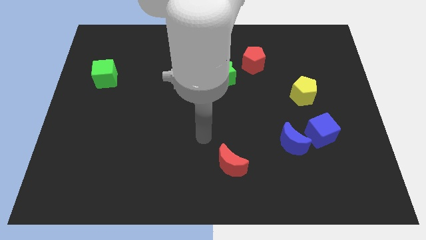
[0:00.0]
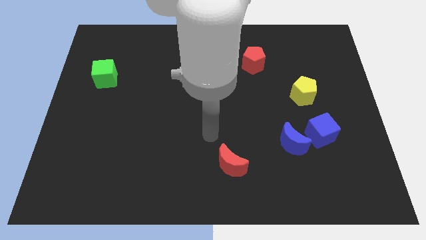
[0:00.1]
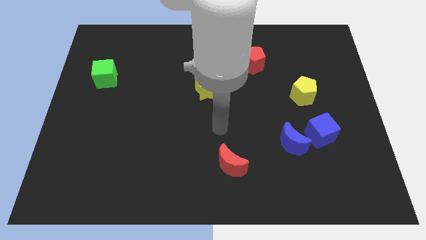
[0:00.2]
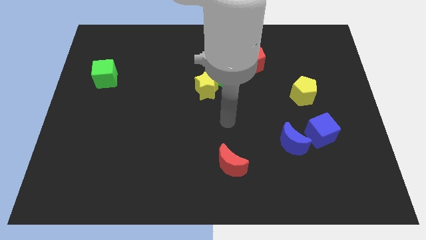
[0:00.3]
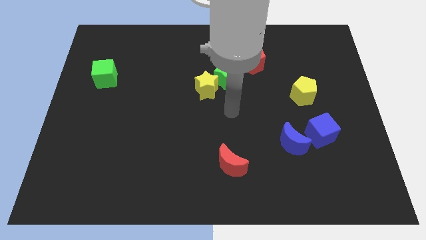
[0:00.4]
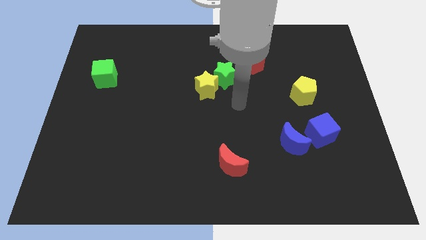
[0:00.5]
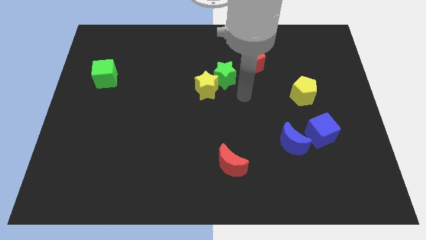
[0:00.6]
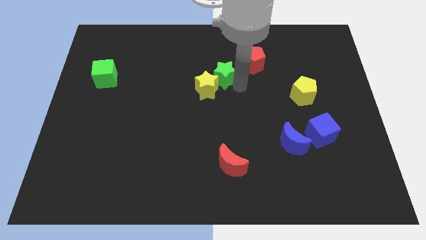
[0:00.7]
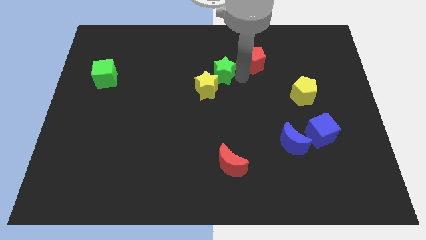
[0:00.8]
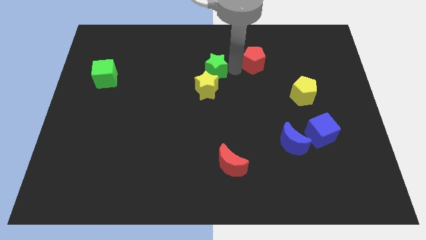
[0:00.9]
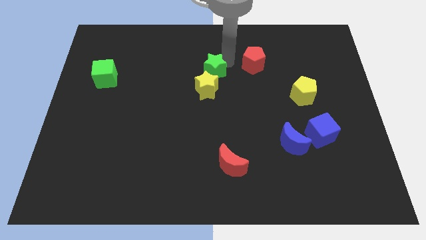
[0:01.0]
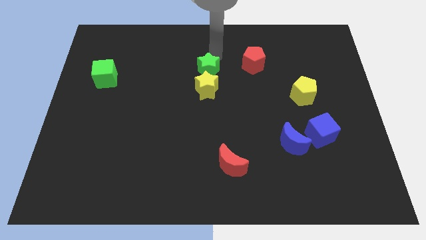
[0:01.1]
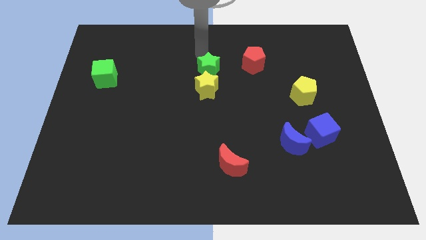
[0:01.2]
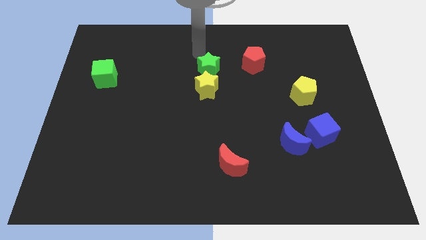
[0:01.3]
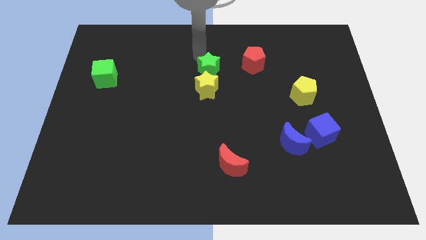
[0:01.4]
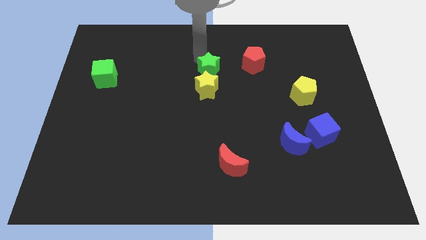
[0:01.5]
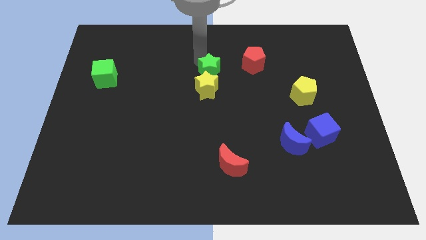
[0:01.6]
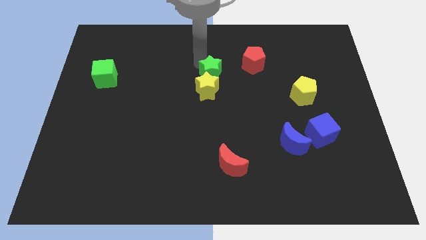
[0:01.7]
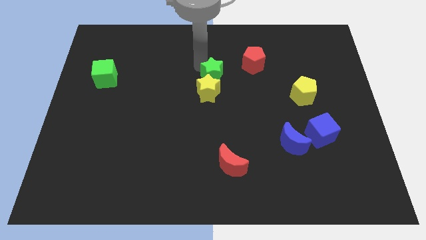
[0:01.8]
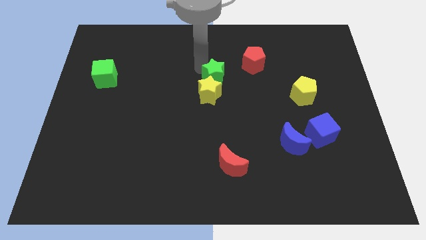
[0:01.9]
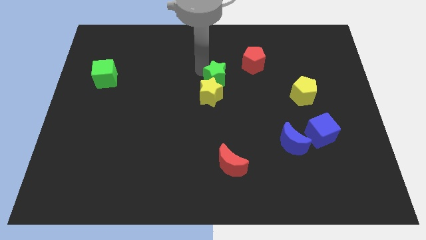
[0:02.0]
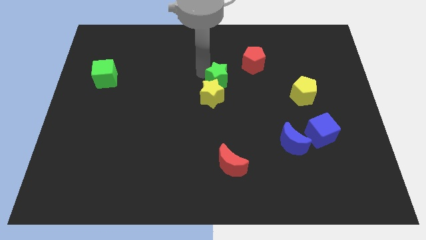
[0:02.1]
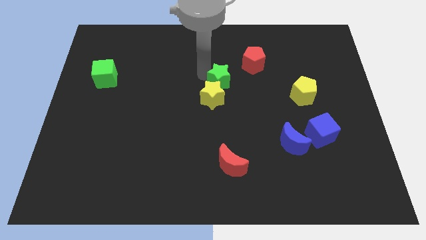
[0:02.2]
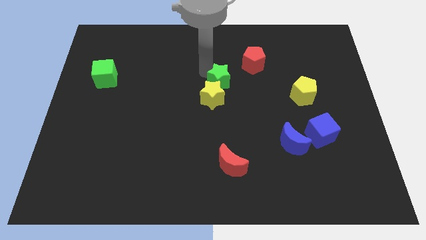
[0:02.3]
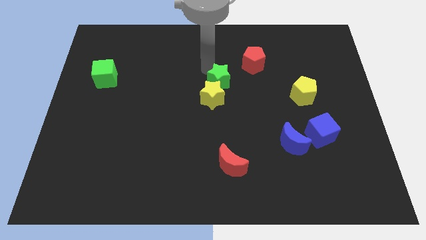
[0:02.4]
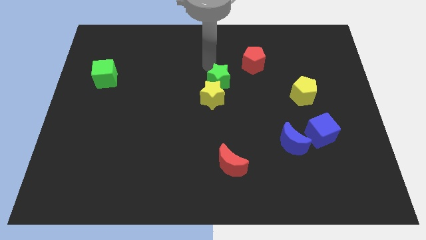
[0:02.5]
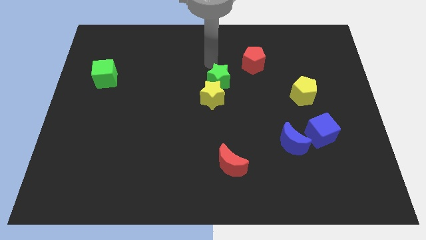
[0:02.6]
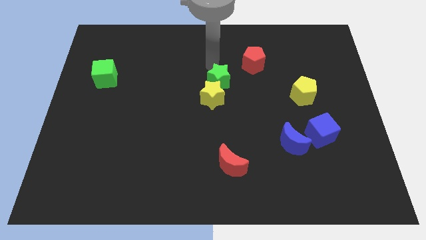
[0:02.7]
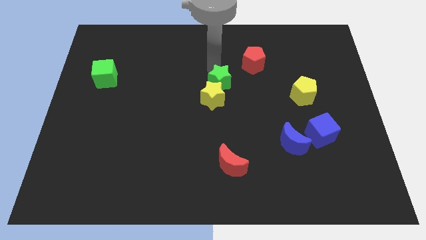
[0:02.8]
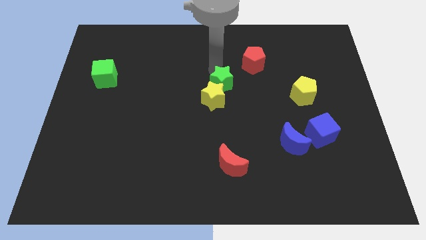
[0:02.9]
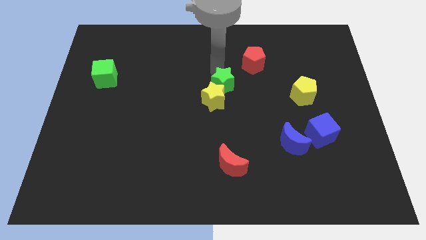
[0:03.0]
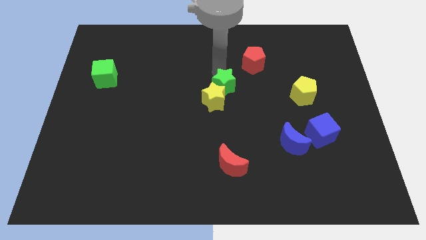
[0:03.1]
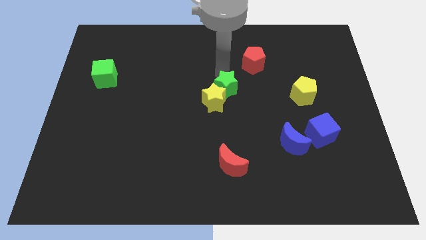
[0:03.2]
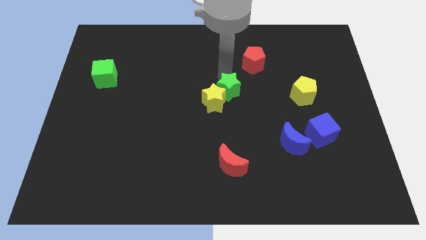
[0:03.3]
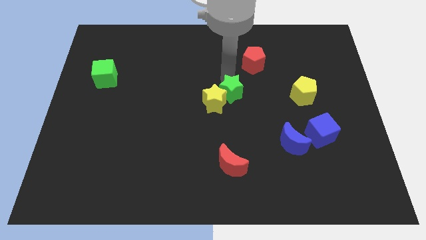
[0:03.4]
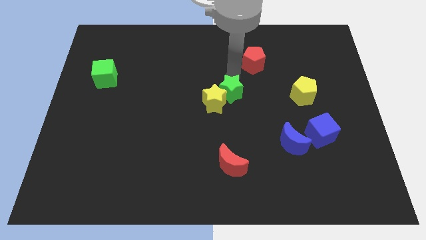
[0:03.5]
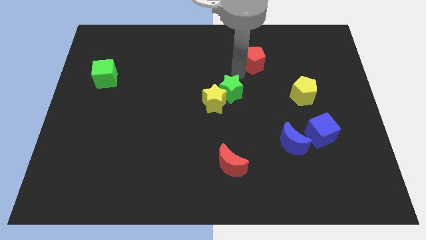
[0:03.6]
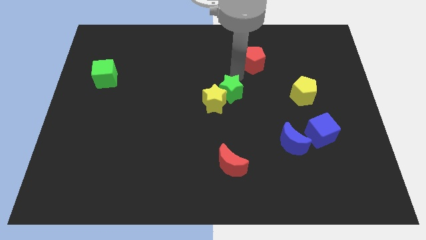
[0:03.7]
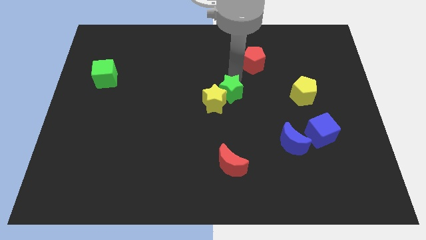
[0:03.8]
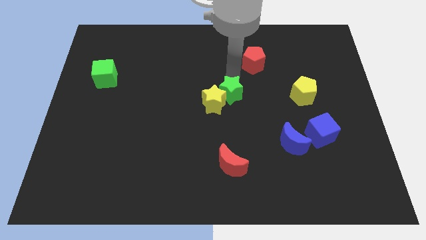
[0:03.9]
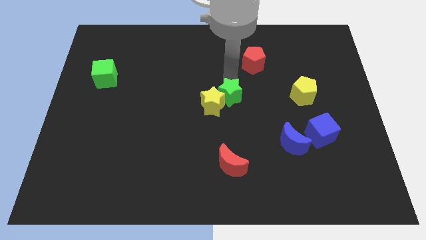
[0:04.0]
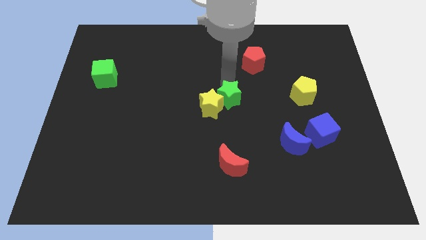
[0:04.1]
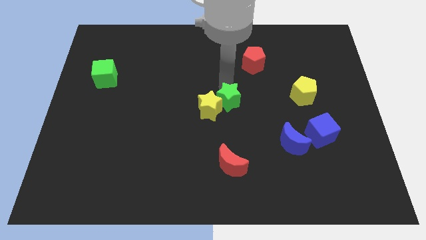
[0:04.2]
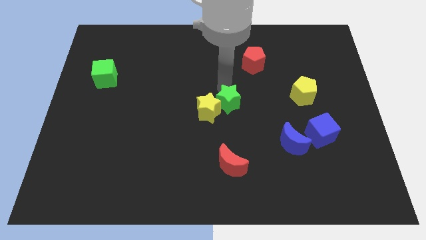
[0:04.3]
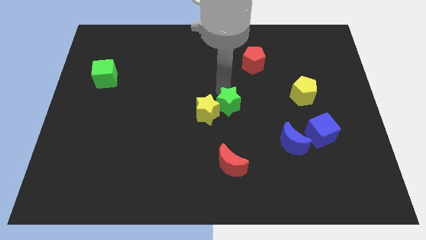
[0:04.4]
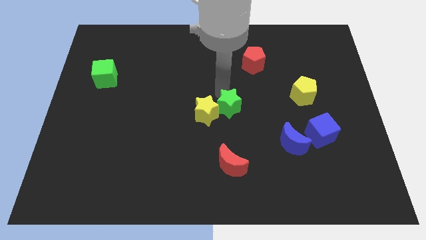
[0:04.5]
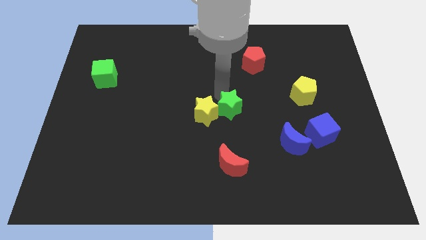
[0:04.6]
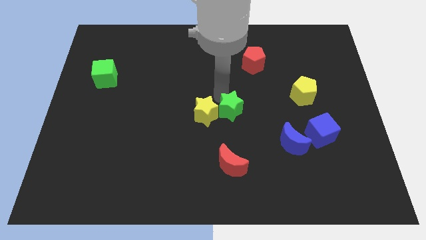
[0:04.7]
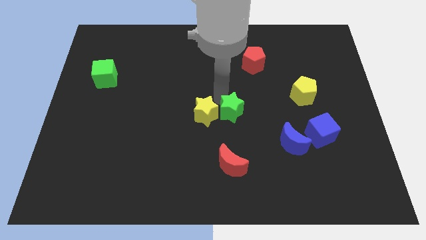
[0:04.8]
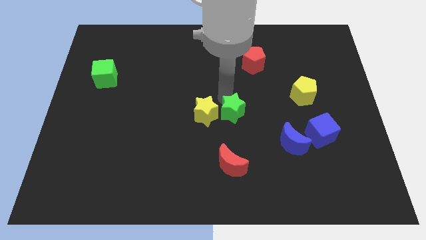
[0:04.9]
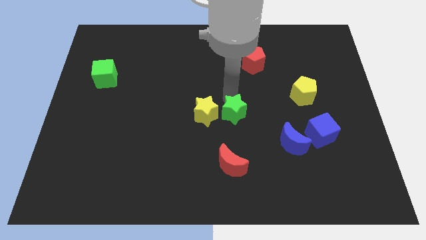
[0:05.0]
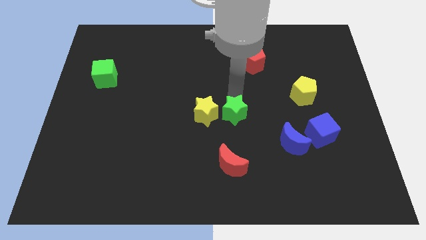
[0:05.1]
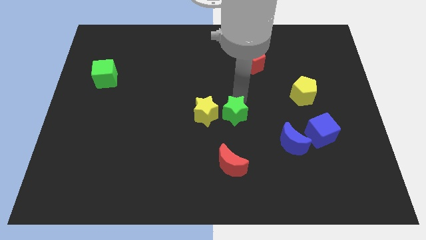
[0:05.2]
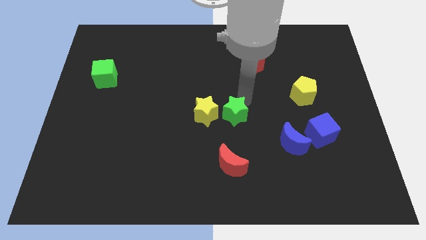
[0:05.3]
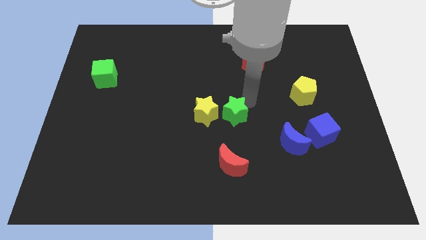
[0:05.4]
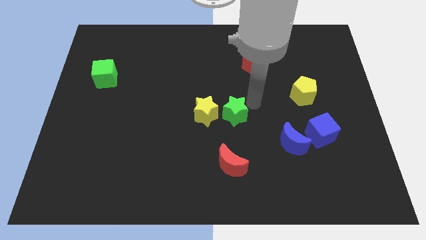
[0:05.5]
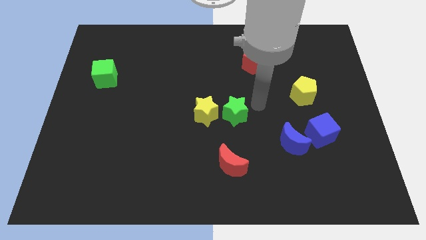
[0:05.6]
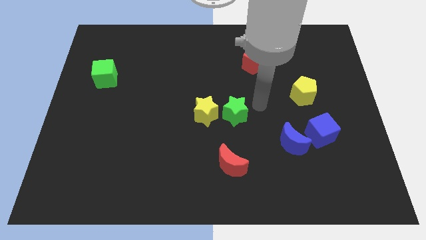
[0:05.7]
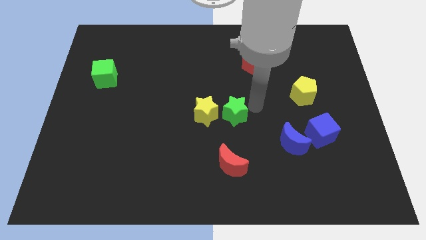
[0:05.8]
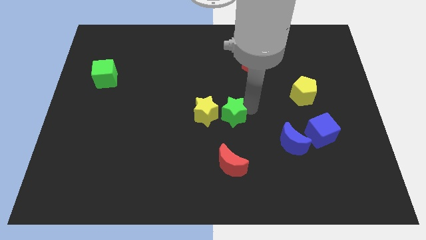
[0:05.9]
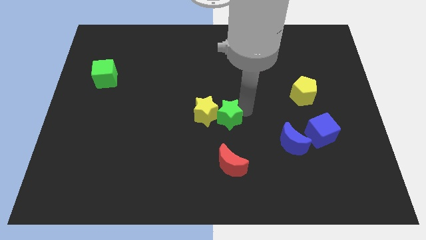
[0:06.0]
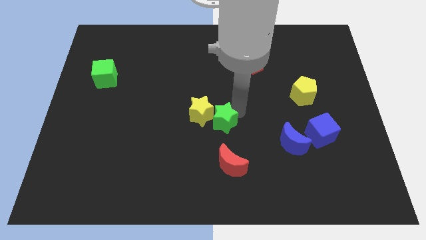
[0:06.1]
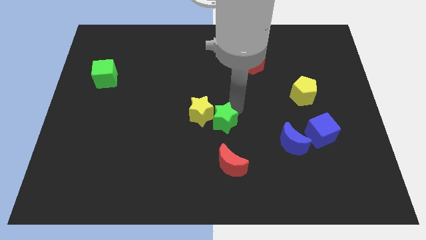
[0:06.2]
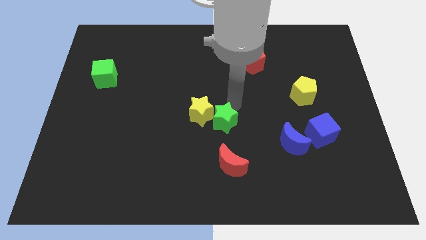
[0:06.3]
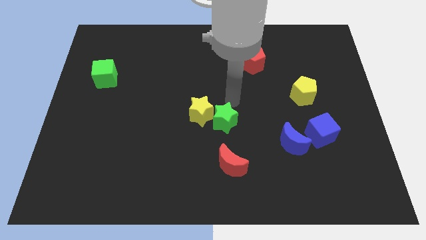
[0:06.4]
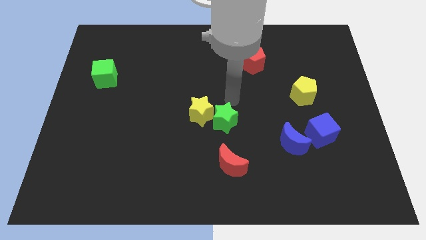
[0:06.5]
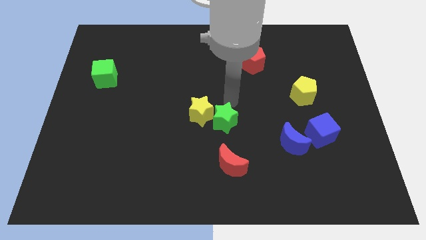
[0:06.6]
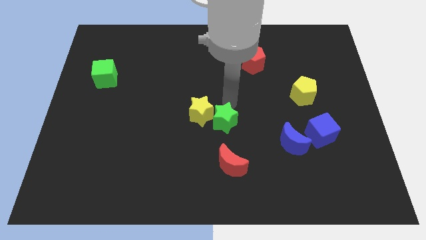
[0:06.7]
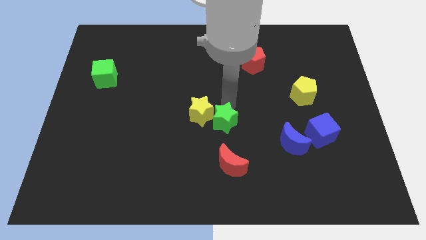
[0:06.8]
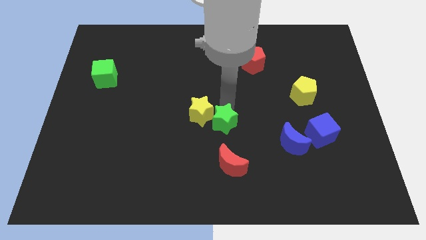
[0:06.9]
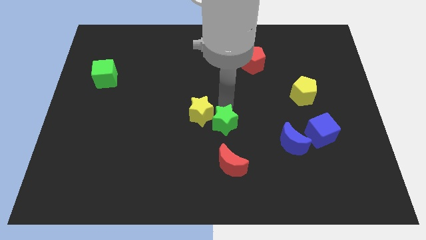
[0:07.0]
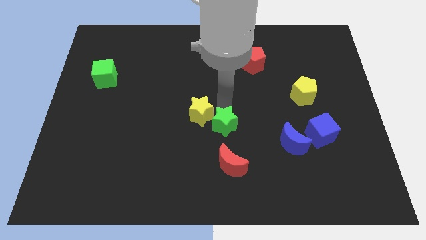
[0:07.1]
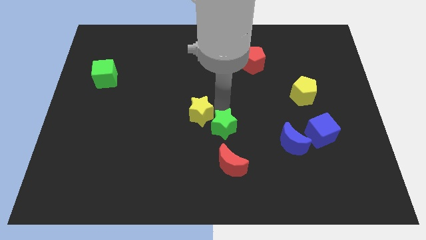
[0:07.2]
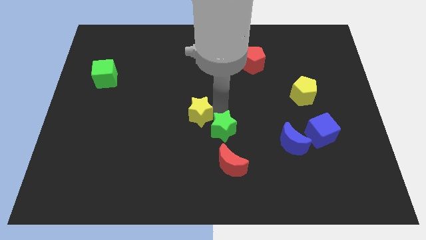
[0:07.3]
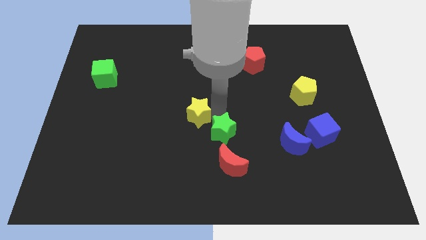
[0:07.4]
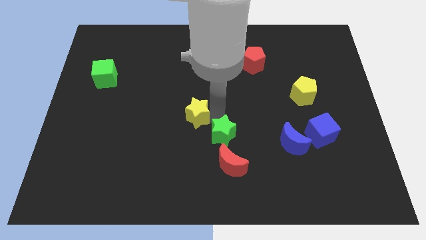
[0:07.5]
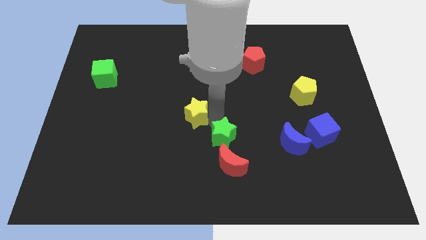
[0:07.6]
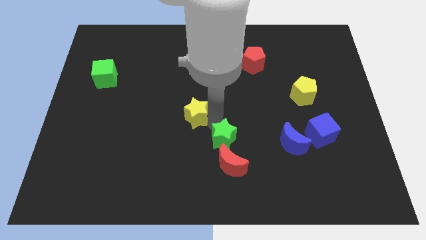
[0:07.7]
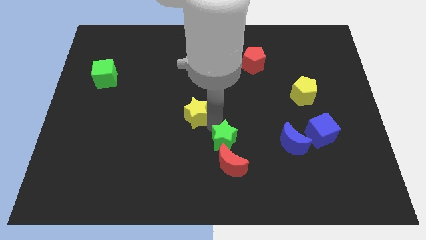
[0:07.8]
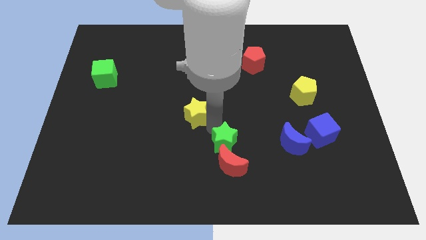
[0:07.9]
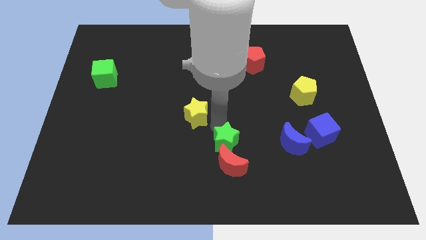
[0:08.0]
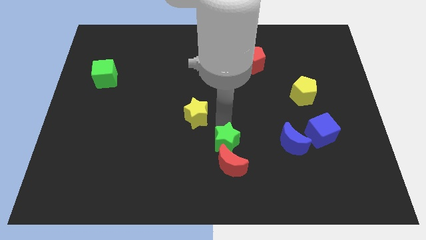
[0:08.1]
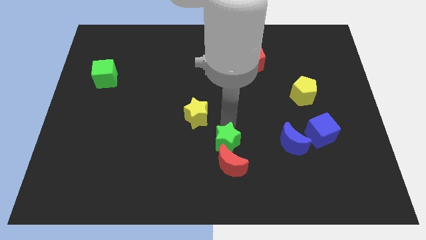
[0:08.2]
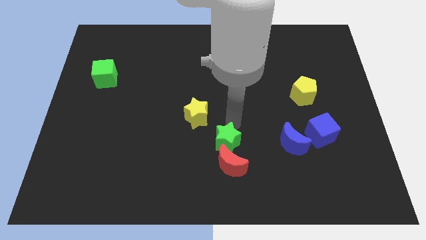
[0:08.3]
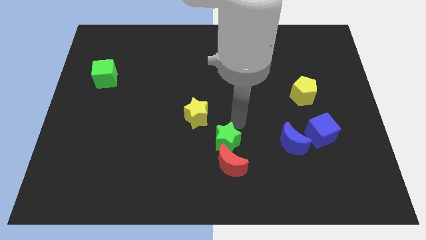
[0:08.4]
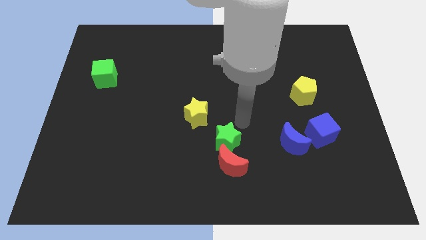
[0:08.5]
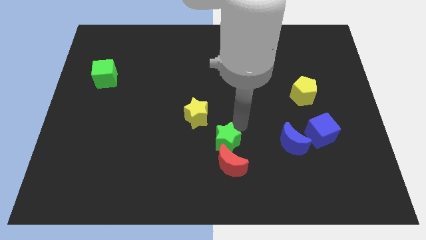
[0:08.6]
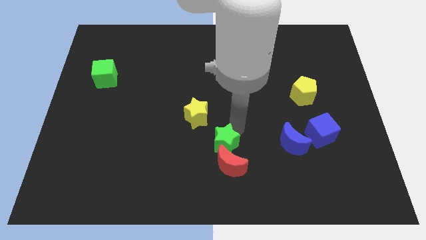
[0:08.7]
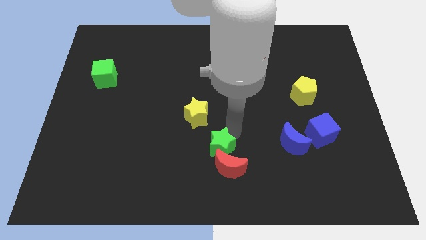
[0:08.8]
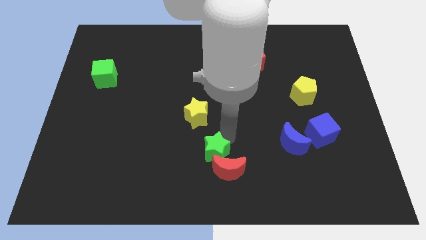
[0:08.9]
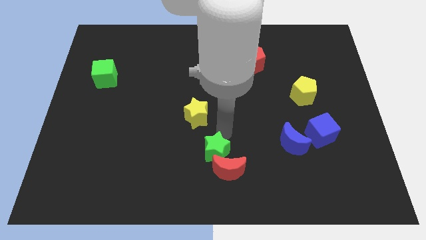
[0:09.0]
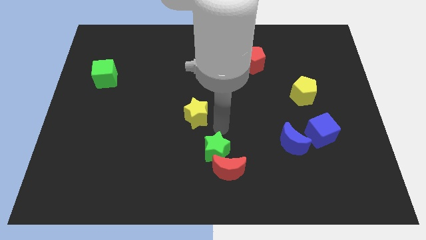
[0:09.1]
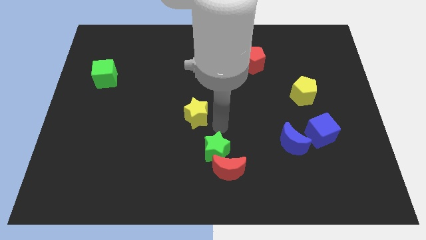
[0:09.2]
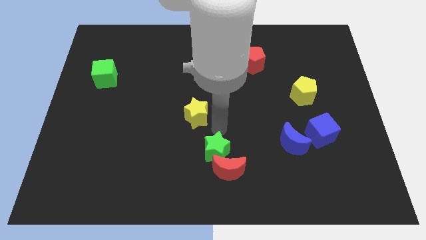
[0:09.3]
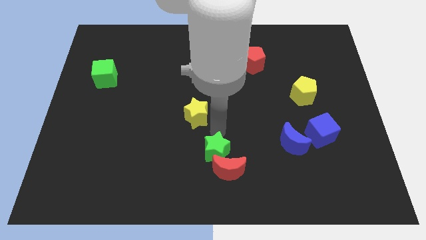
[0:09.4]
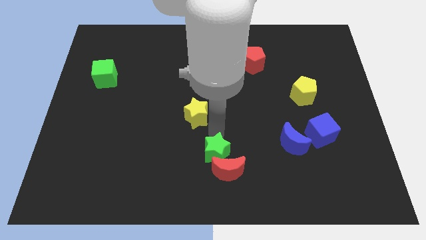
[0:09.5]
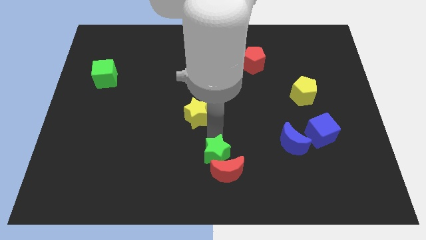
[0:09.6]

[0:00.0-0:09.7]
slide the green star to the bottom side
